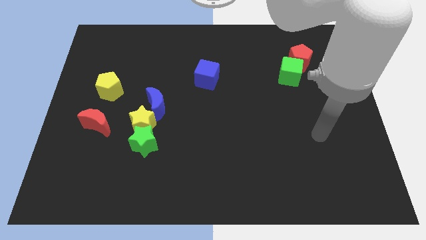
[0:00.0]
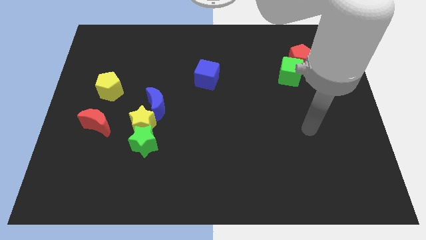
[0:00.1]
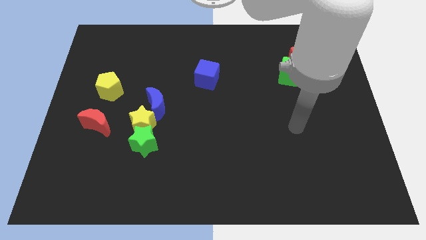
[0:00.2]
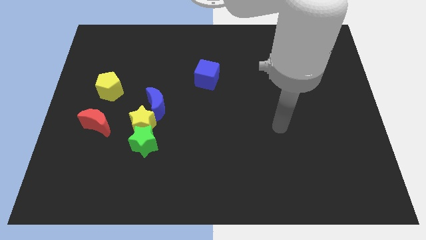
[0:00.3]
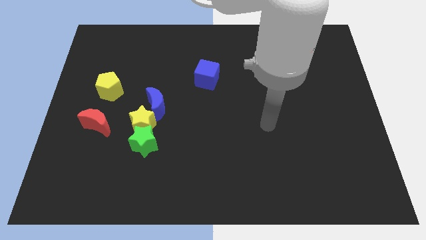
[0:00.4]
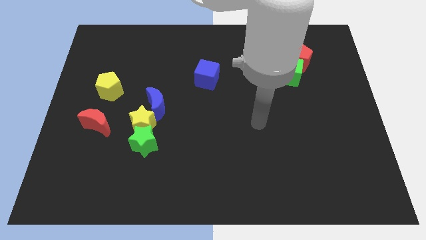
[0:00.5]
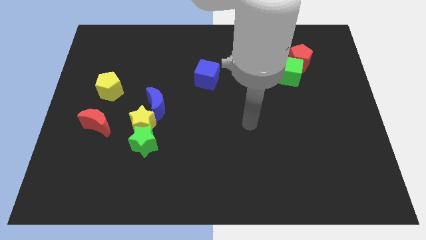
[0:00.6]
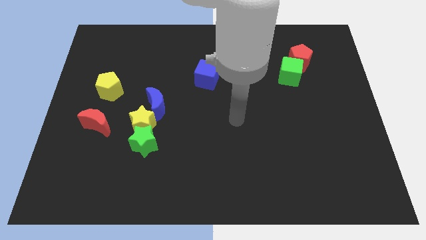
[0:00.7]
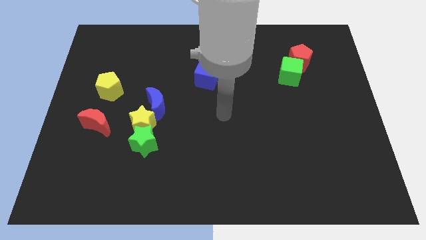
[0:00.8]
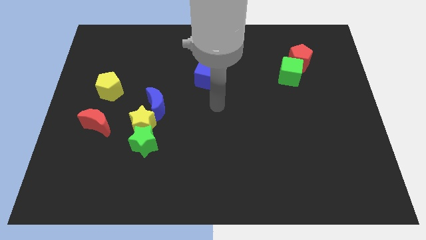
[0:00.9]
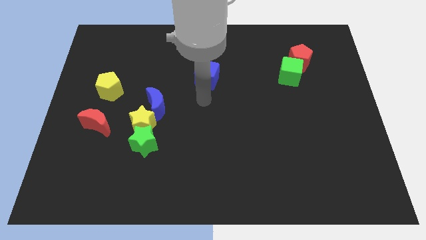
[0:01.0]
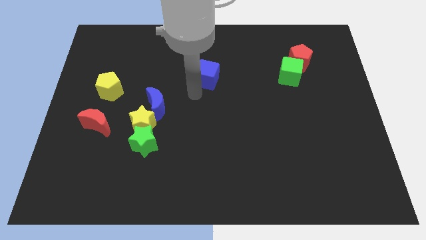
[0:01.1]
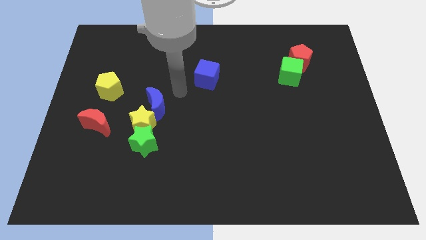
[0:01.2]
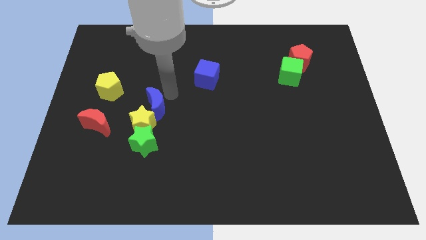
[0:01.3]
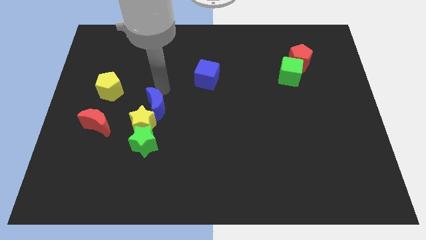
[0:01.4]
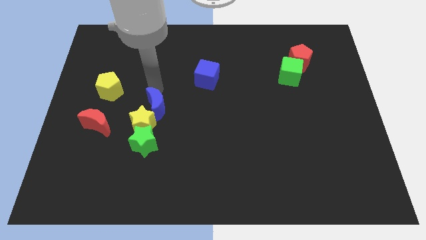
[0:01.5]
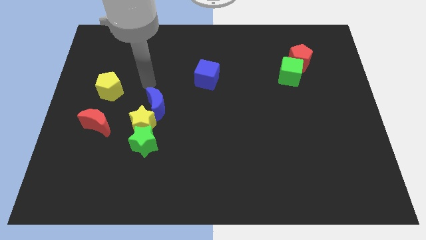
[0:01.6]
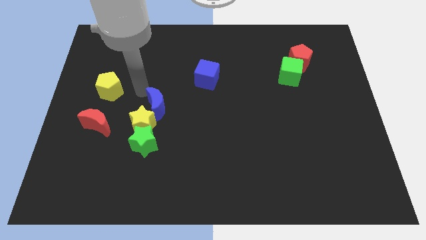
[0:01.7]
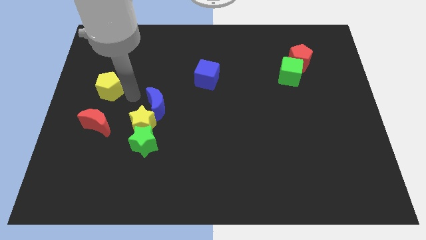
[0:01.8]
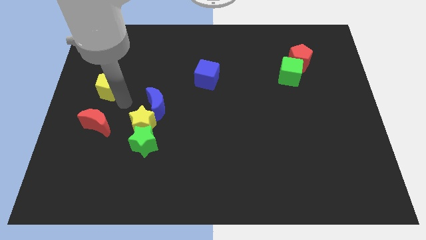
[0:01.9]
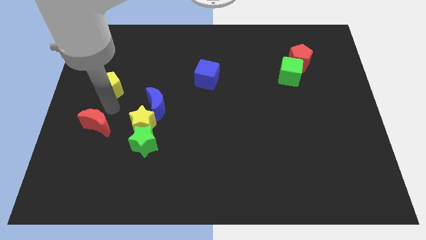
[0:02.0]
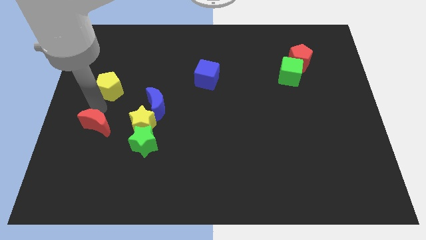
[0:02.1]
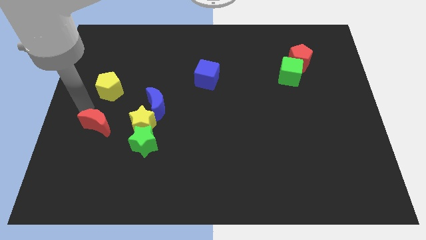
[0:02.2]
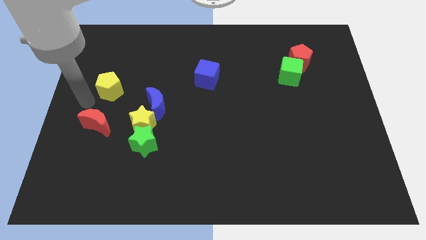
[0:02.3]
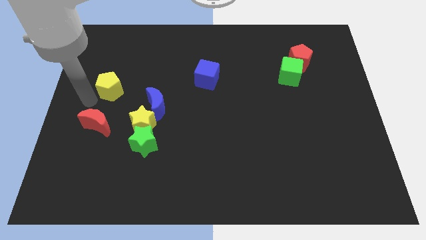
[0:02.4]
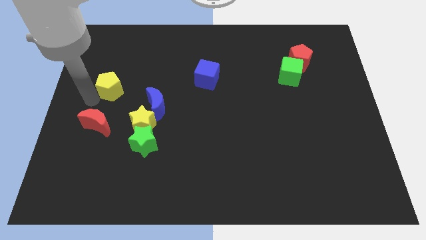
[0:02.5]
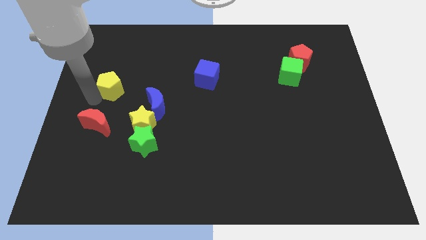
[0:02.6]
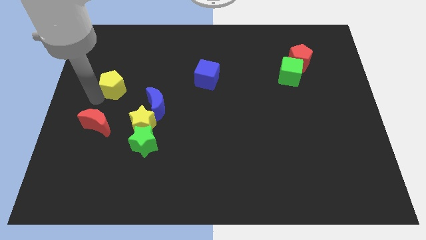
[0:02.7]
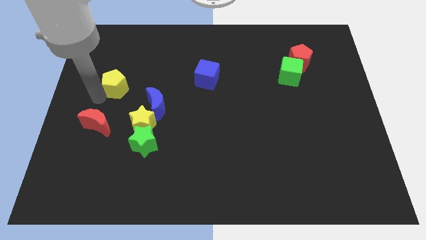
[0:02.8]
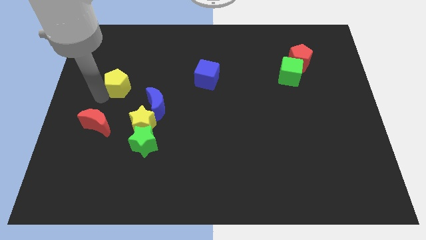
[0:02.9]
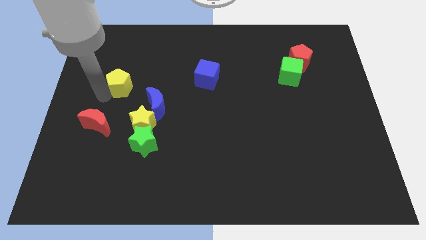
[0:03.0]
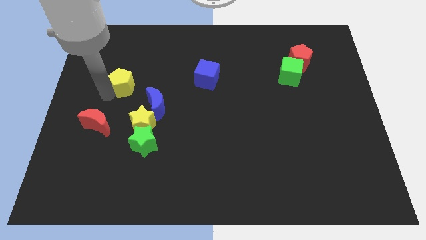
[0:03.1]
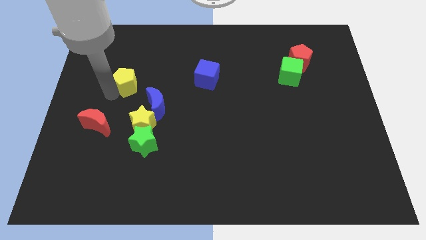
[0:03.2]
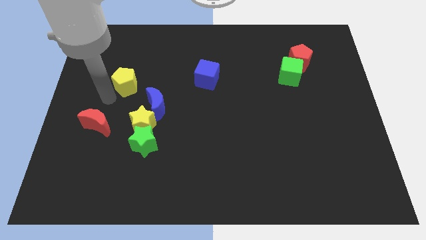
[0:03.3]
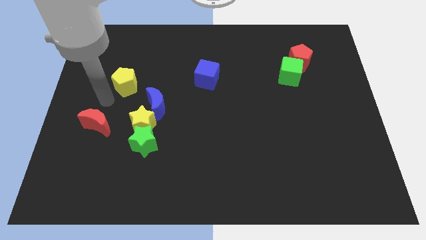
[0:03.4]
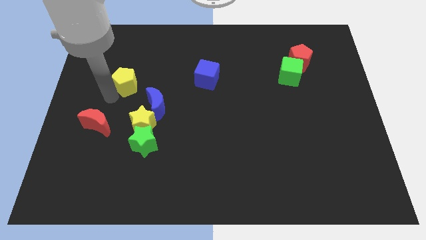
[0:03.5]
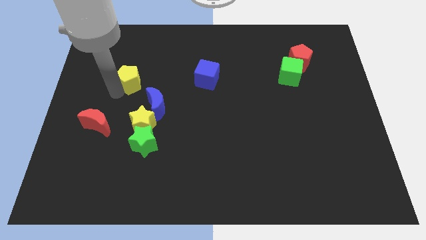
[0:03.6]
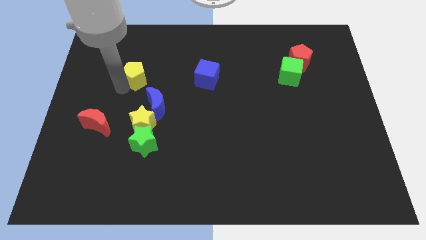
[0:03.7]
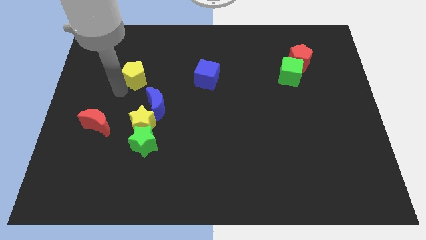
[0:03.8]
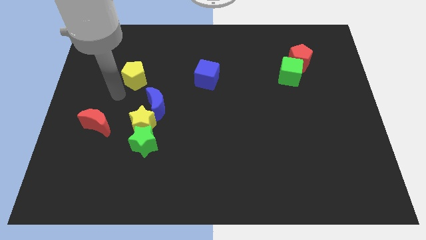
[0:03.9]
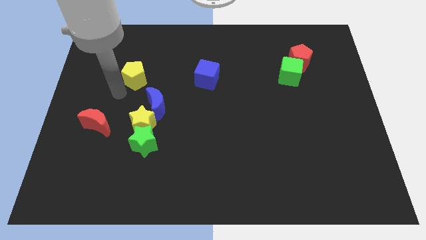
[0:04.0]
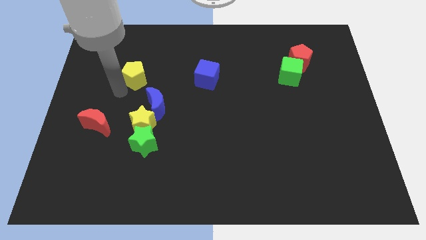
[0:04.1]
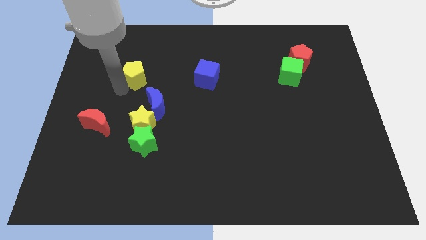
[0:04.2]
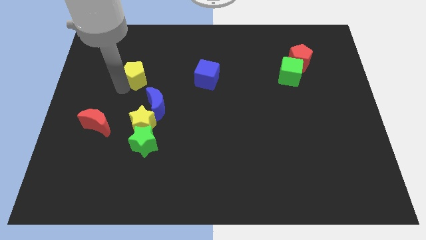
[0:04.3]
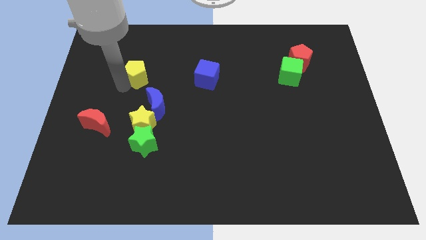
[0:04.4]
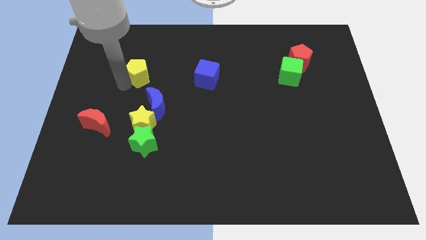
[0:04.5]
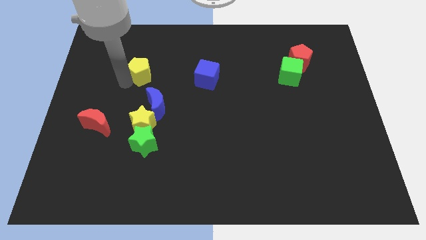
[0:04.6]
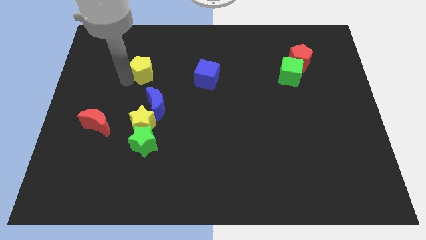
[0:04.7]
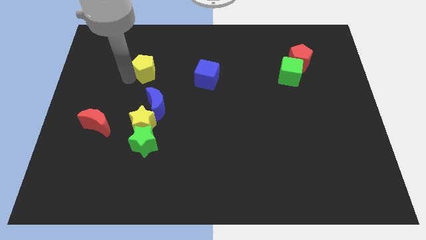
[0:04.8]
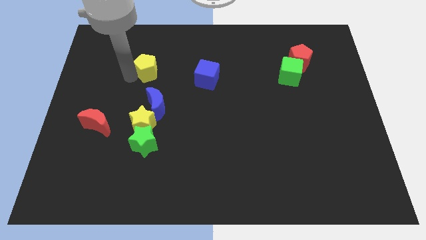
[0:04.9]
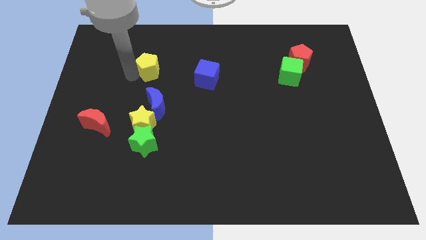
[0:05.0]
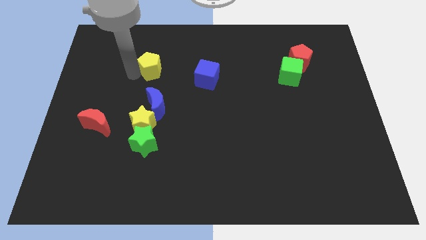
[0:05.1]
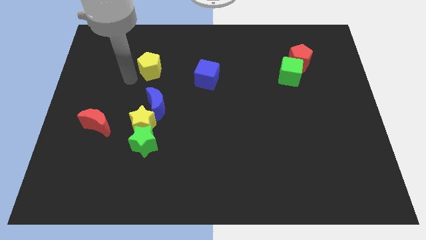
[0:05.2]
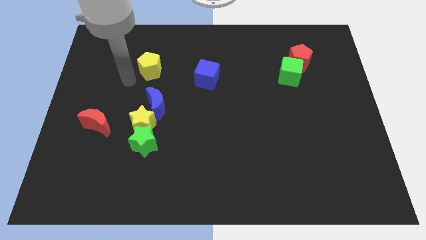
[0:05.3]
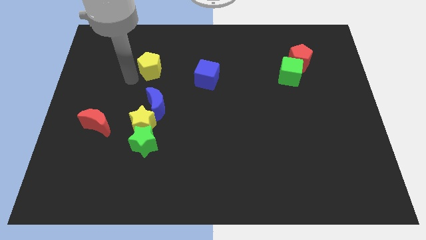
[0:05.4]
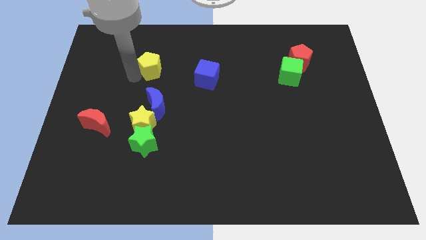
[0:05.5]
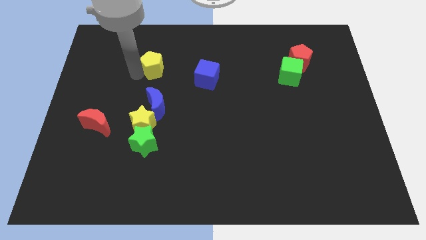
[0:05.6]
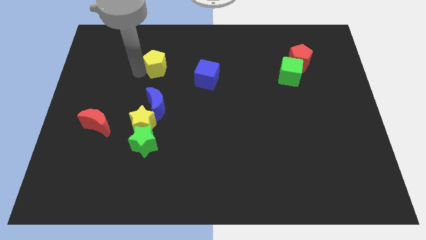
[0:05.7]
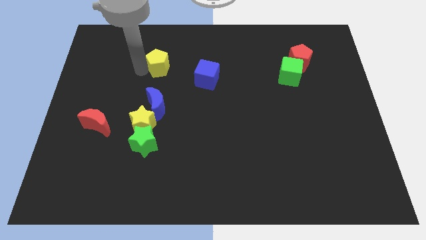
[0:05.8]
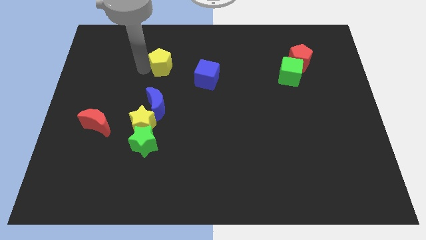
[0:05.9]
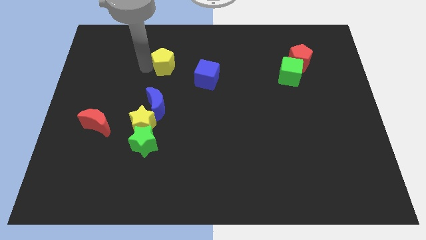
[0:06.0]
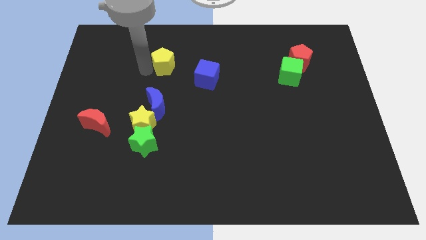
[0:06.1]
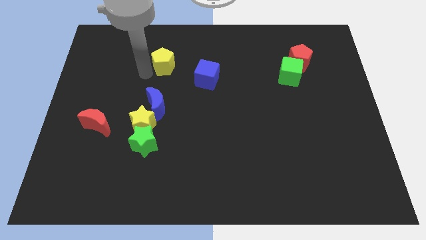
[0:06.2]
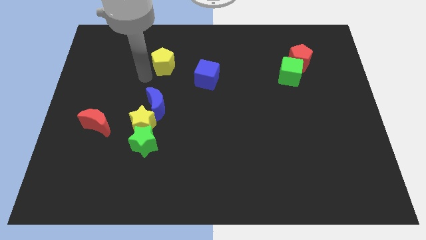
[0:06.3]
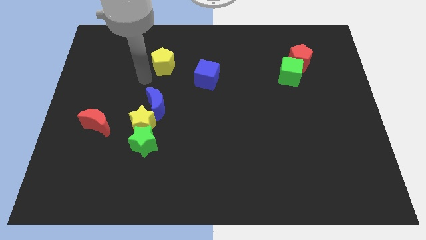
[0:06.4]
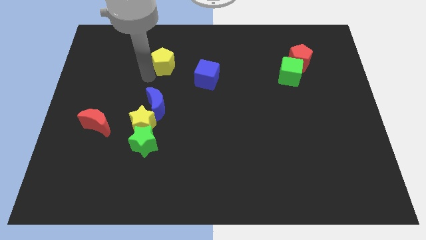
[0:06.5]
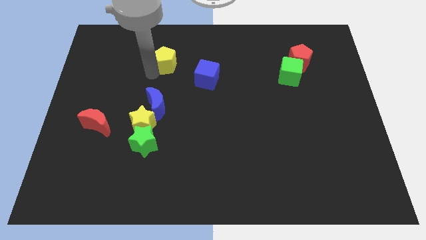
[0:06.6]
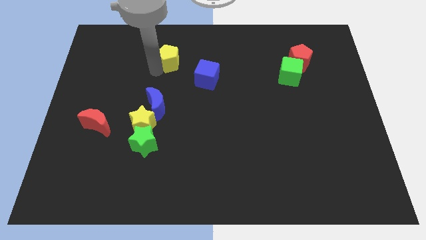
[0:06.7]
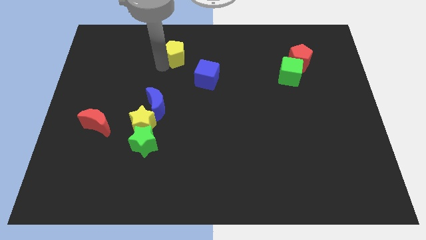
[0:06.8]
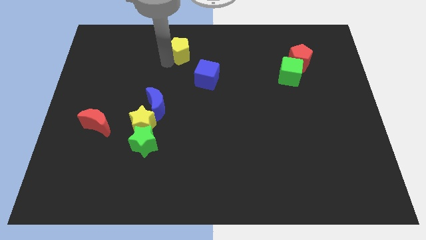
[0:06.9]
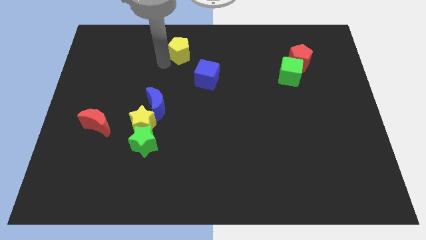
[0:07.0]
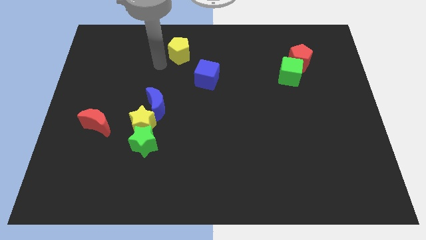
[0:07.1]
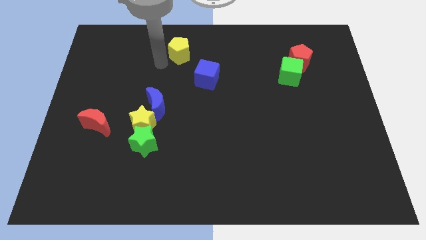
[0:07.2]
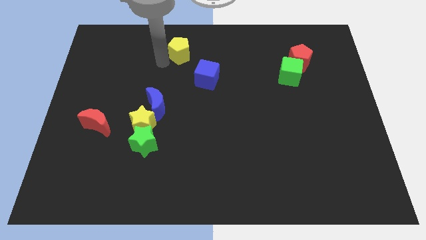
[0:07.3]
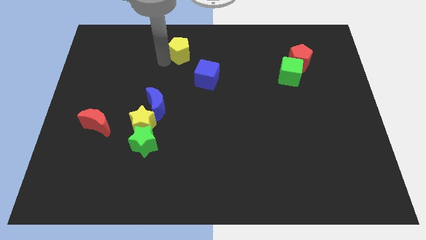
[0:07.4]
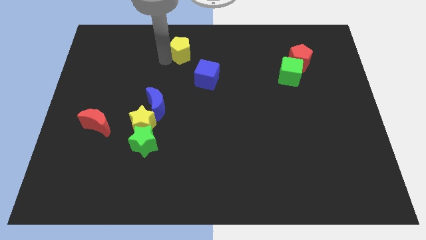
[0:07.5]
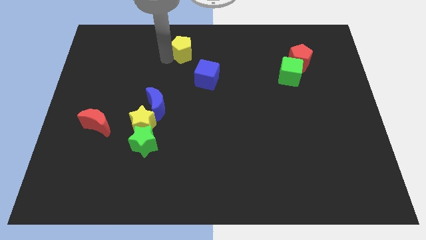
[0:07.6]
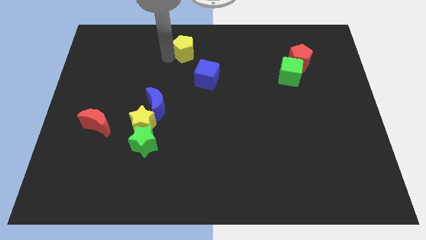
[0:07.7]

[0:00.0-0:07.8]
slide the yellow pentagon to the top side
